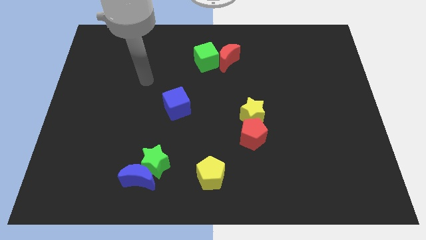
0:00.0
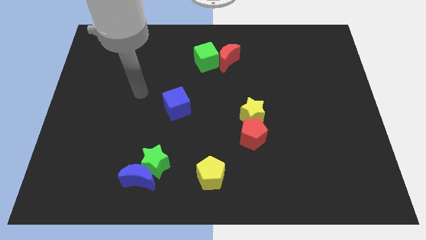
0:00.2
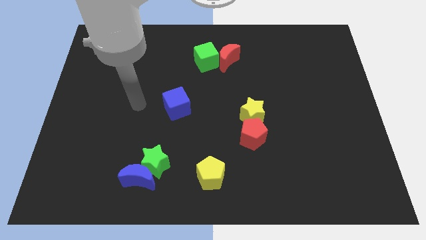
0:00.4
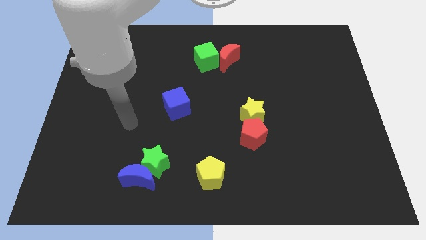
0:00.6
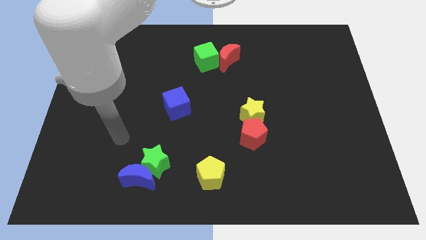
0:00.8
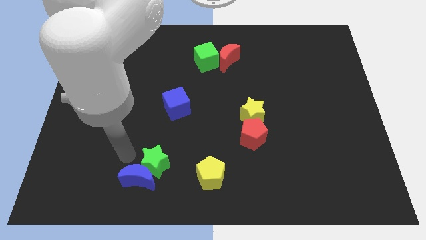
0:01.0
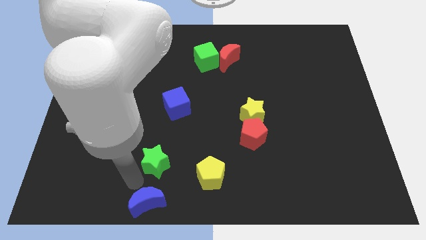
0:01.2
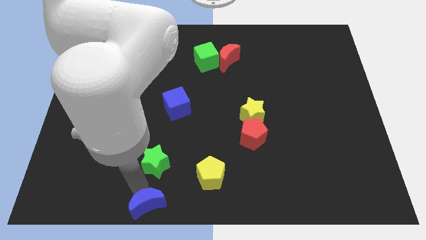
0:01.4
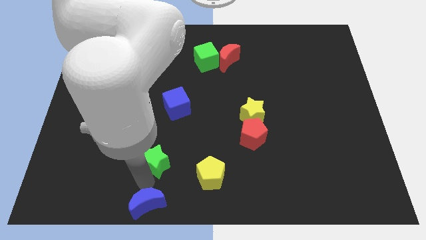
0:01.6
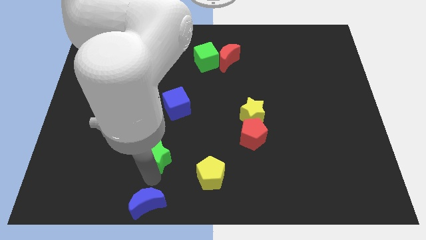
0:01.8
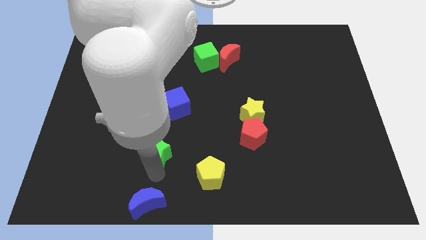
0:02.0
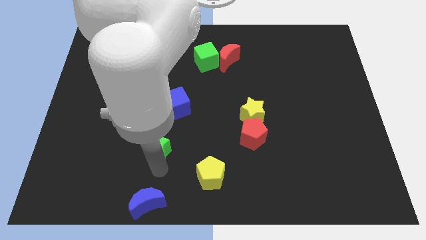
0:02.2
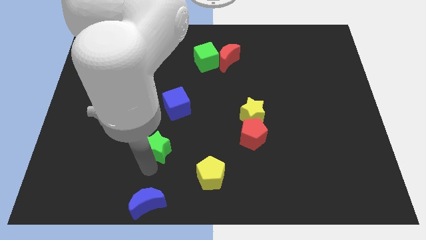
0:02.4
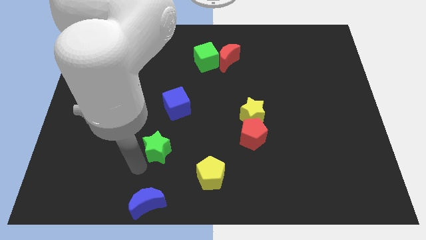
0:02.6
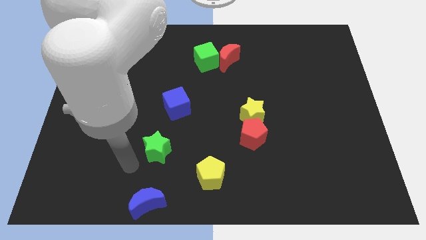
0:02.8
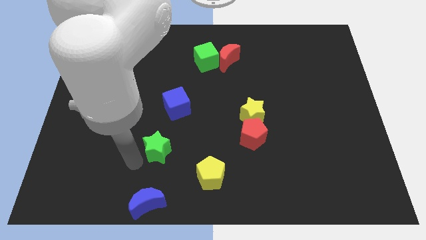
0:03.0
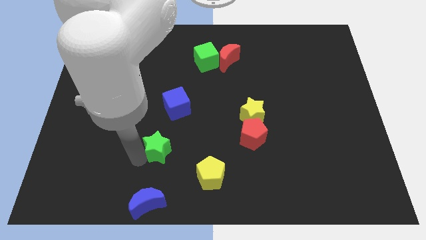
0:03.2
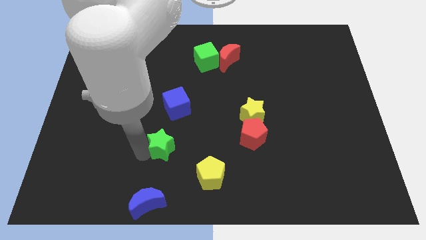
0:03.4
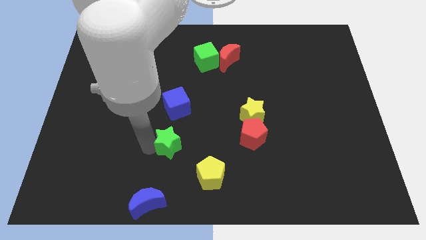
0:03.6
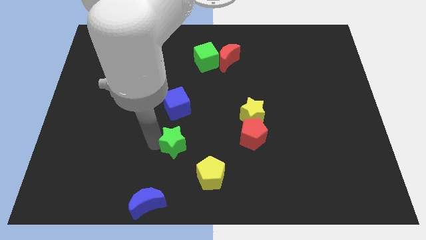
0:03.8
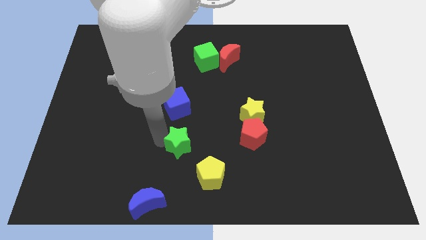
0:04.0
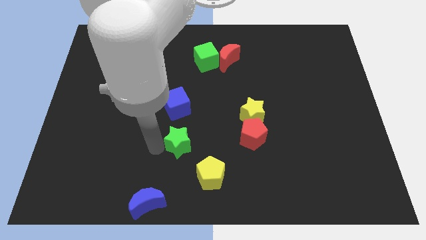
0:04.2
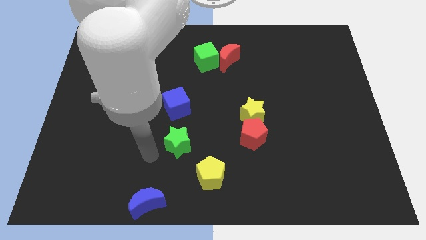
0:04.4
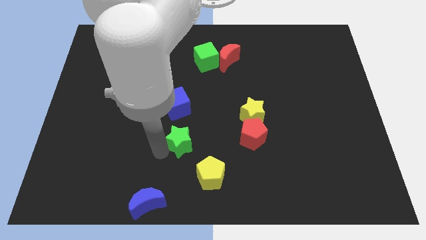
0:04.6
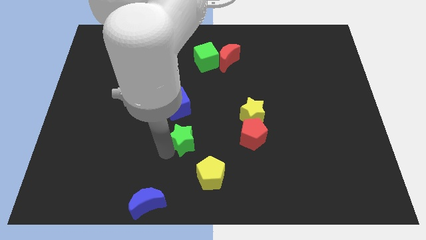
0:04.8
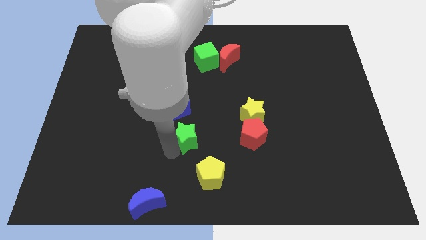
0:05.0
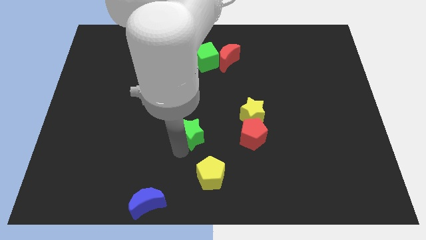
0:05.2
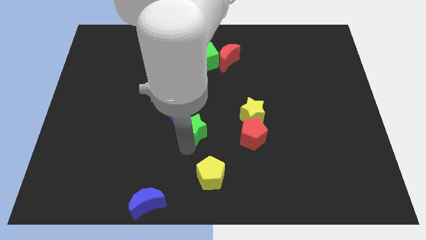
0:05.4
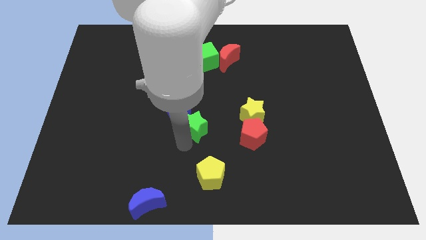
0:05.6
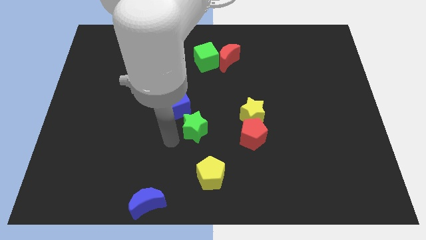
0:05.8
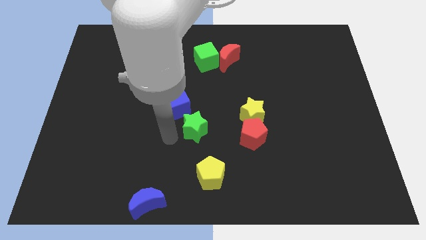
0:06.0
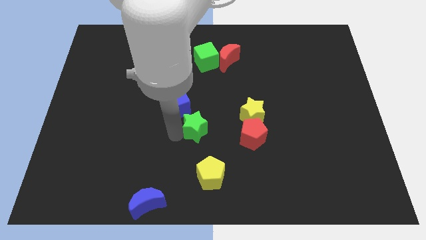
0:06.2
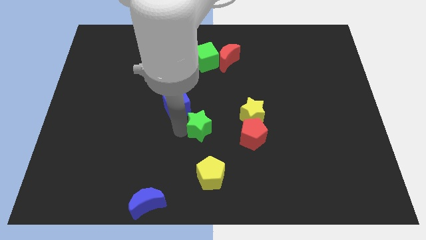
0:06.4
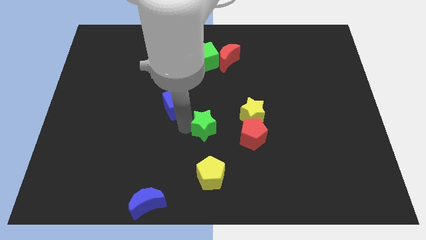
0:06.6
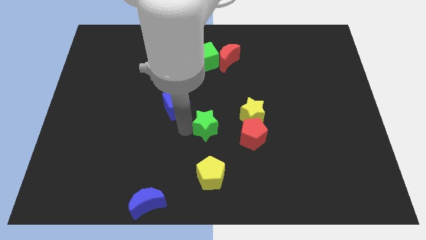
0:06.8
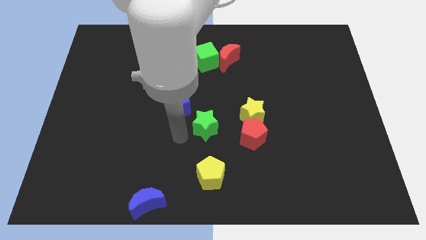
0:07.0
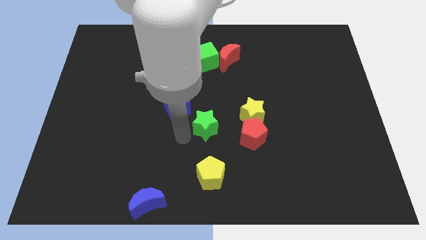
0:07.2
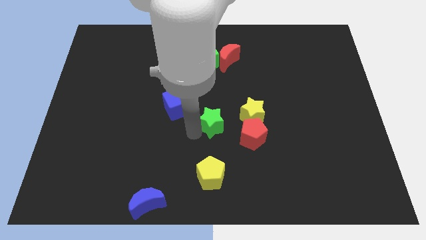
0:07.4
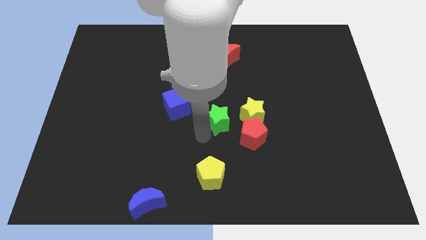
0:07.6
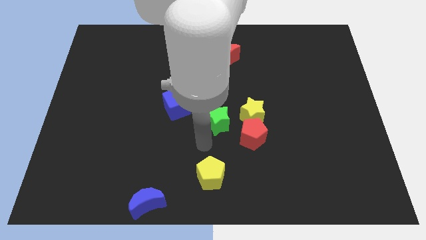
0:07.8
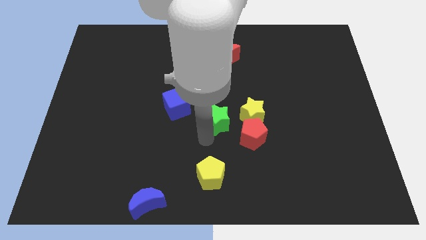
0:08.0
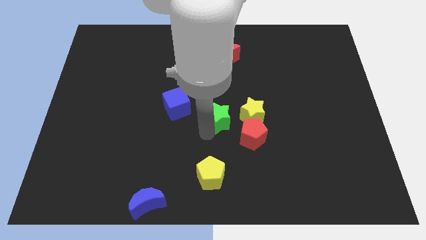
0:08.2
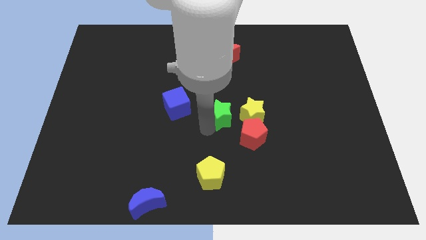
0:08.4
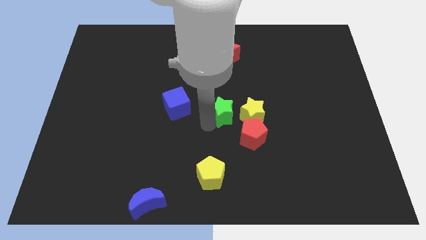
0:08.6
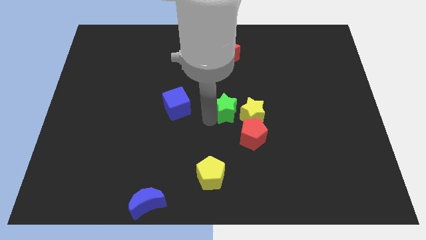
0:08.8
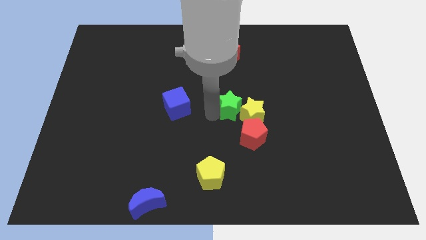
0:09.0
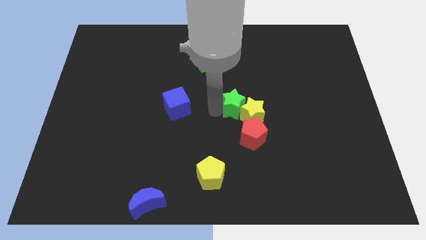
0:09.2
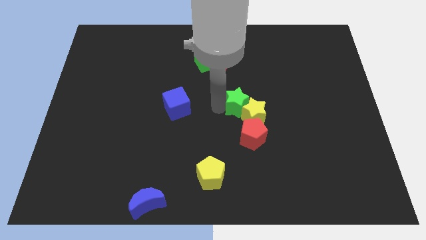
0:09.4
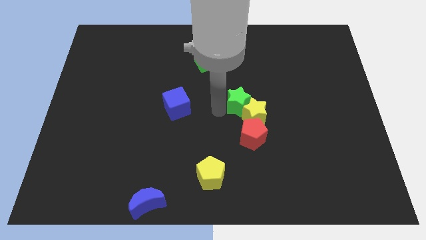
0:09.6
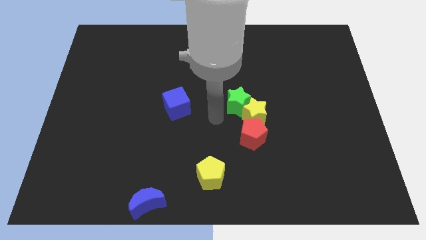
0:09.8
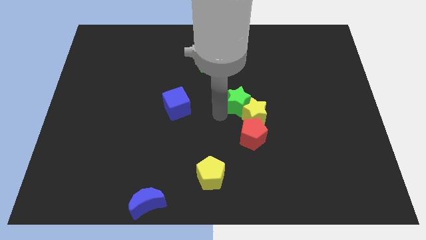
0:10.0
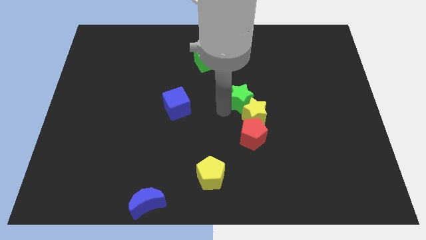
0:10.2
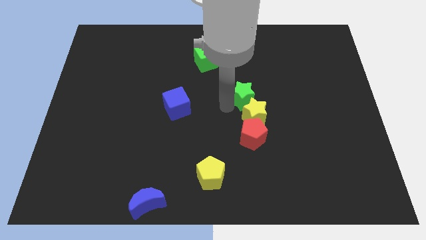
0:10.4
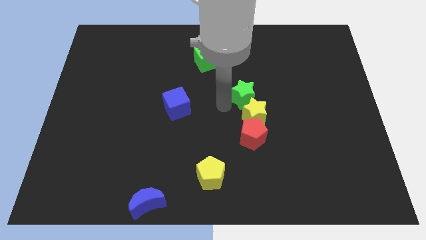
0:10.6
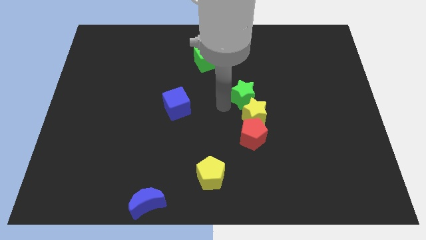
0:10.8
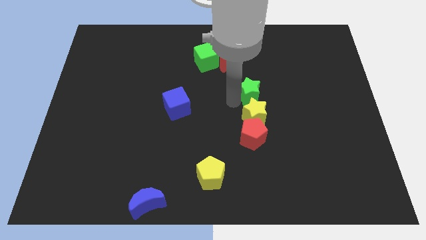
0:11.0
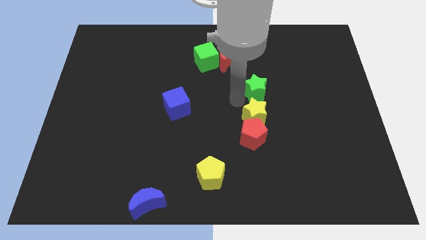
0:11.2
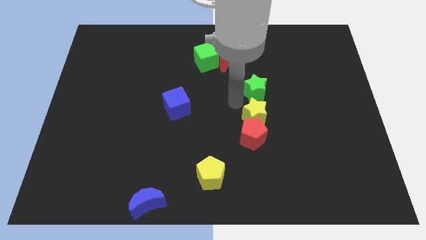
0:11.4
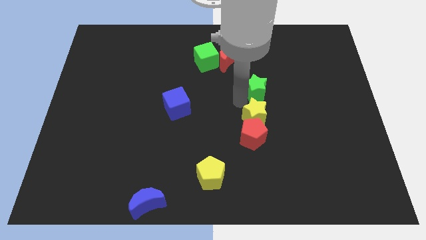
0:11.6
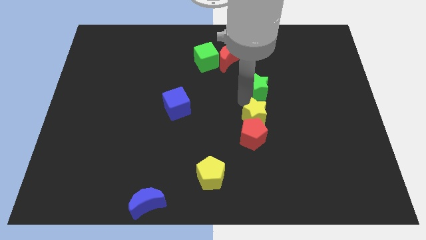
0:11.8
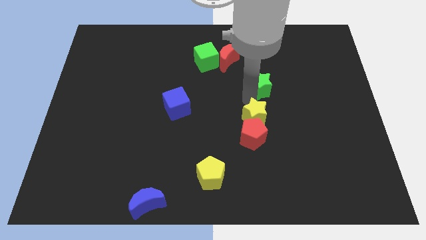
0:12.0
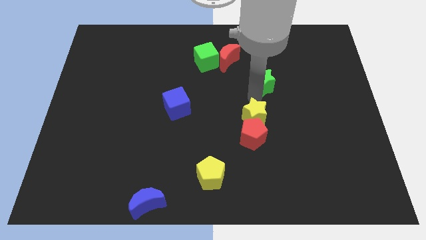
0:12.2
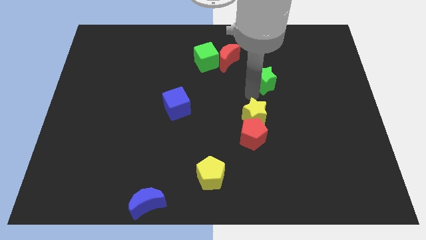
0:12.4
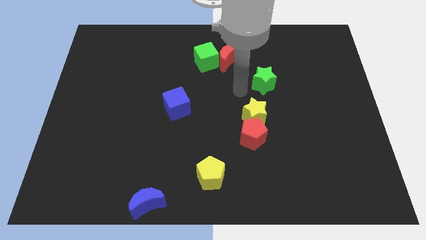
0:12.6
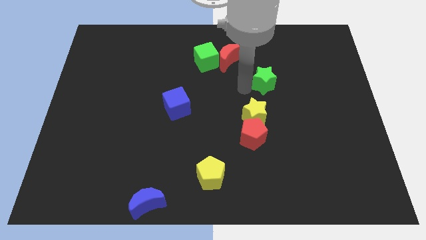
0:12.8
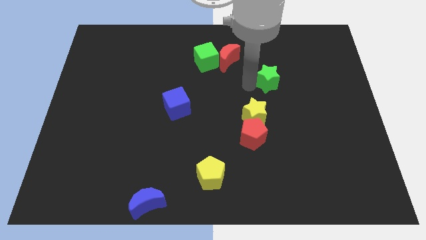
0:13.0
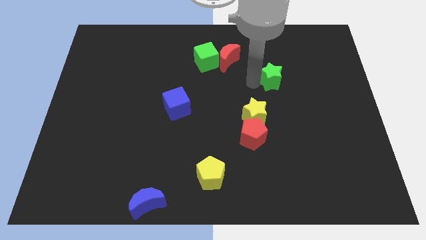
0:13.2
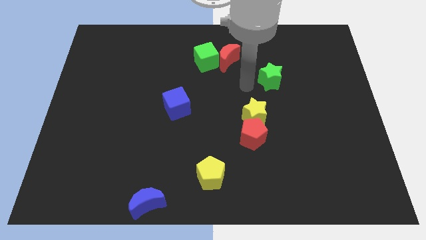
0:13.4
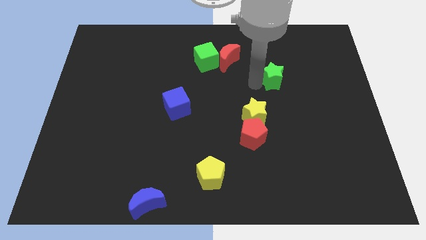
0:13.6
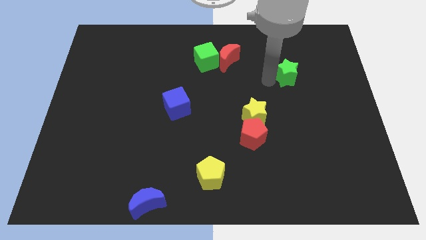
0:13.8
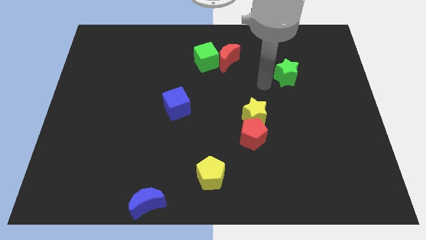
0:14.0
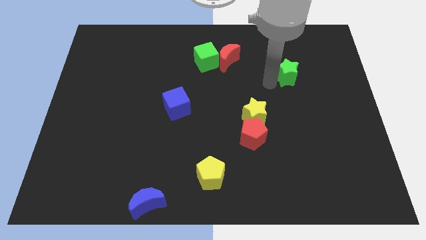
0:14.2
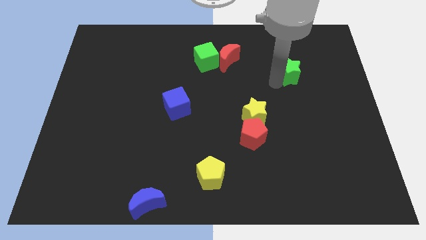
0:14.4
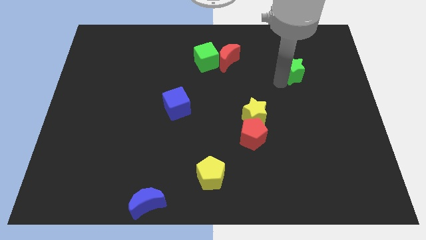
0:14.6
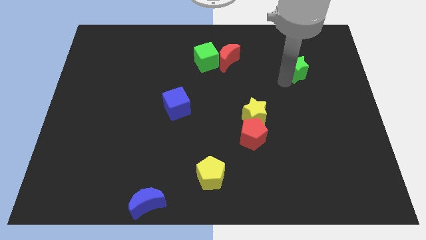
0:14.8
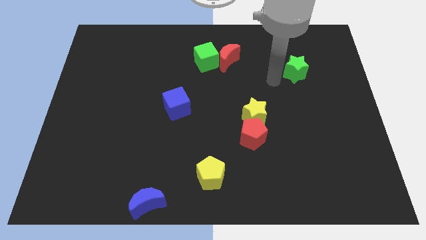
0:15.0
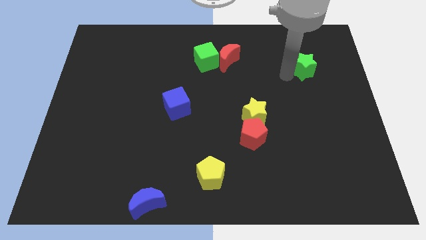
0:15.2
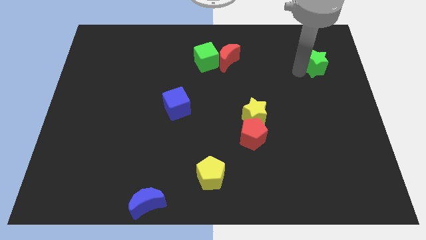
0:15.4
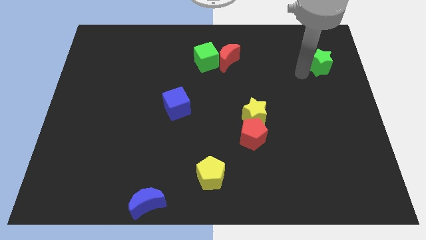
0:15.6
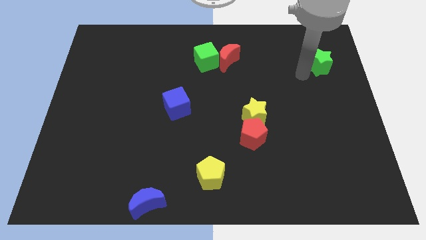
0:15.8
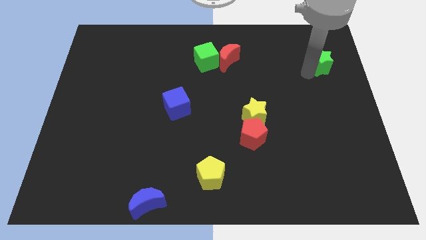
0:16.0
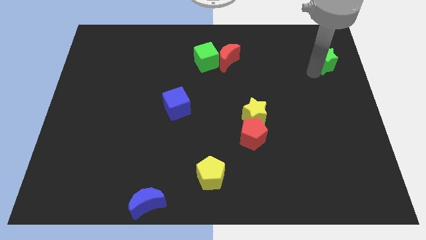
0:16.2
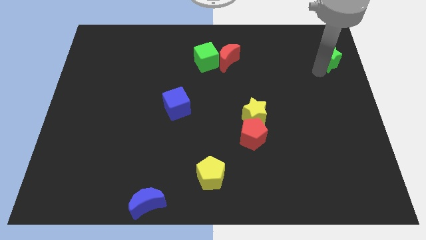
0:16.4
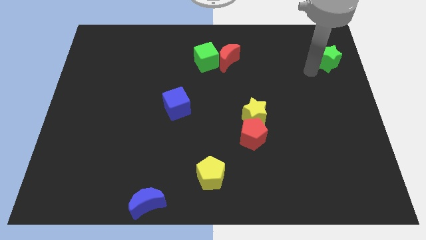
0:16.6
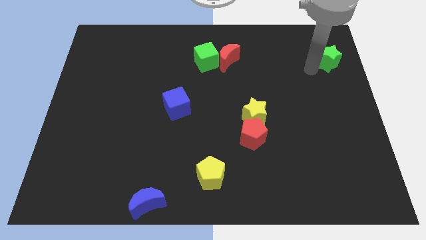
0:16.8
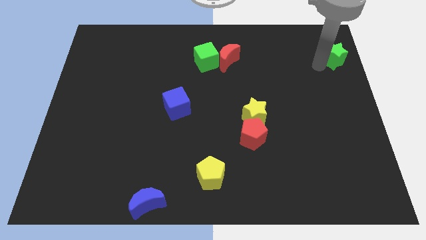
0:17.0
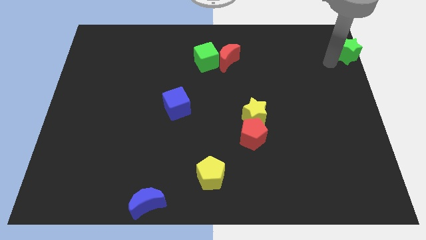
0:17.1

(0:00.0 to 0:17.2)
slide the green star to the top right of the board
